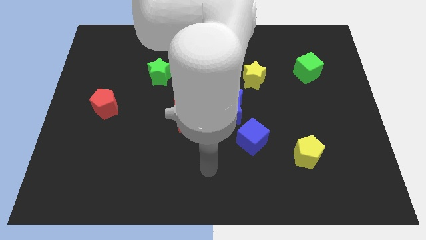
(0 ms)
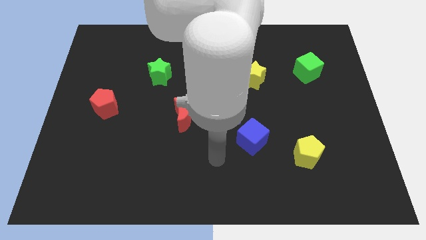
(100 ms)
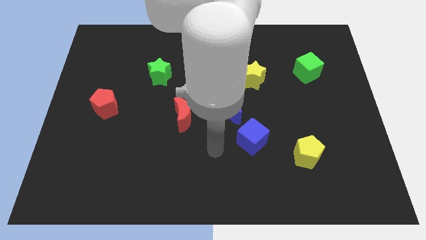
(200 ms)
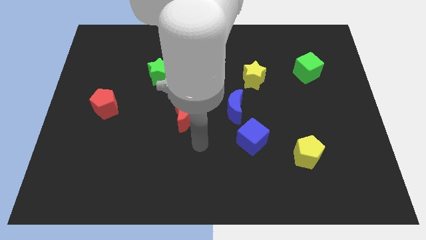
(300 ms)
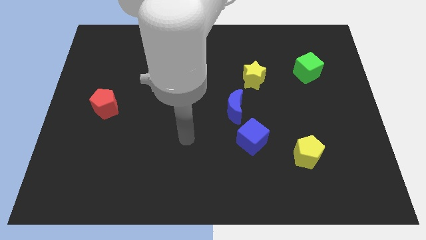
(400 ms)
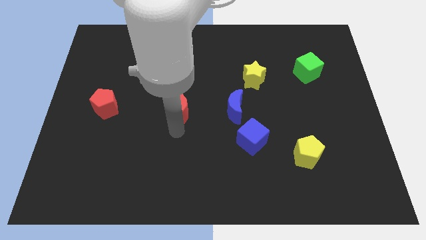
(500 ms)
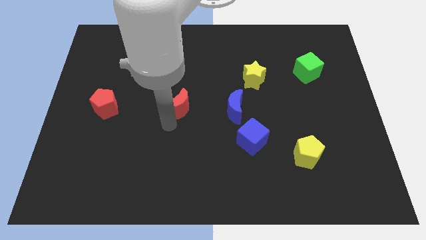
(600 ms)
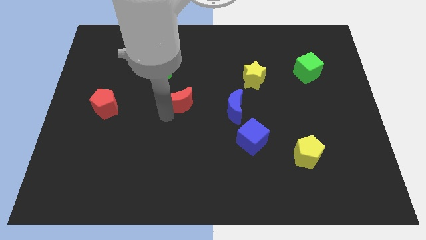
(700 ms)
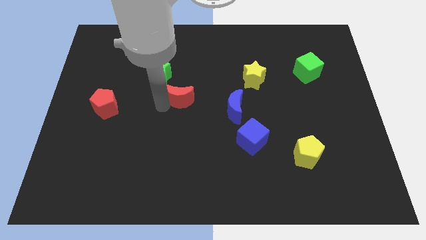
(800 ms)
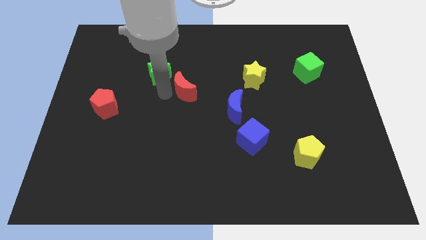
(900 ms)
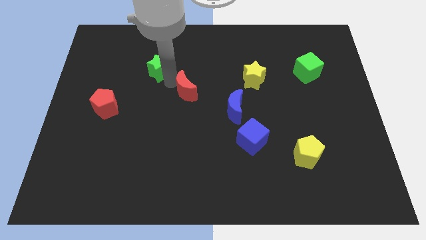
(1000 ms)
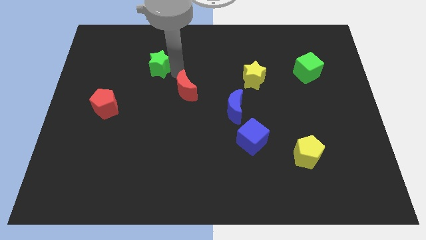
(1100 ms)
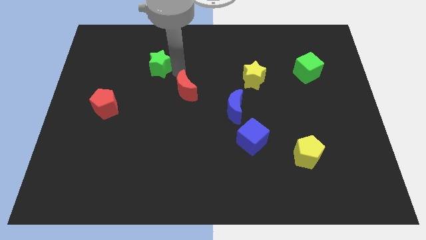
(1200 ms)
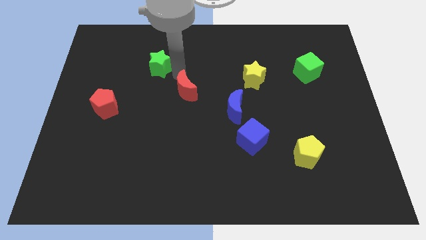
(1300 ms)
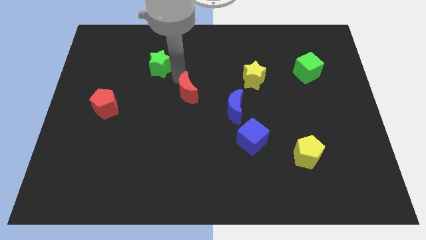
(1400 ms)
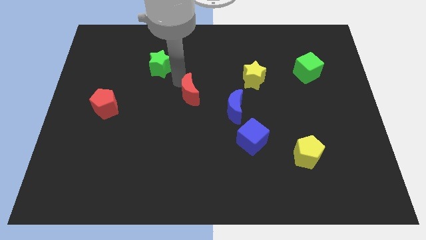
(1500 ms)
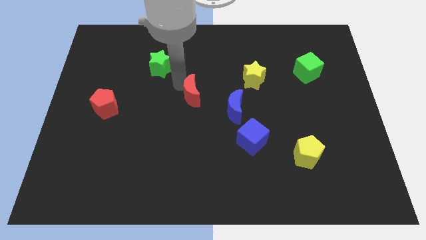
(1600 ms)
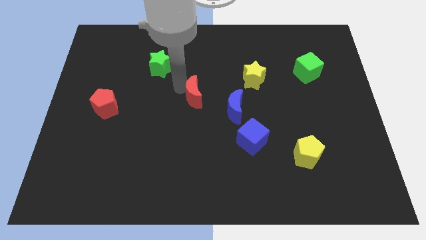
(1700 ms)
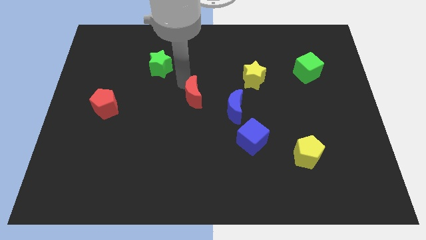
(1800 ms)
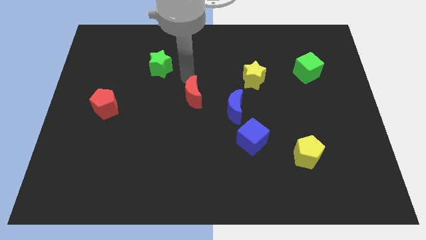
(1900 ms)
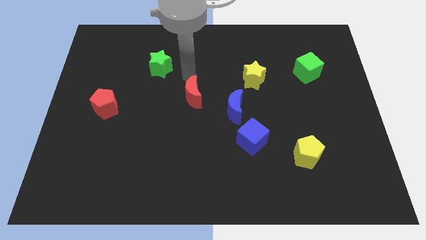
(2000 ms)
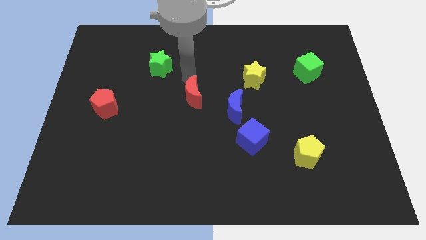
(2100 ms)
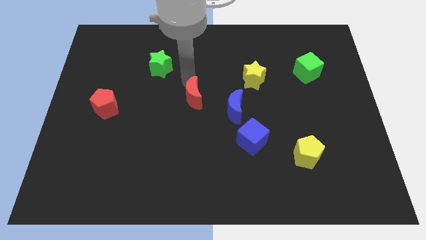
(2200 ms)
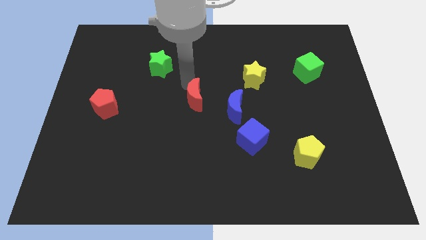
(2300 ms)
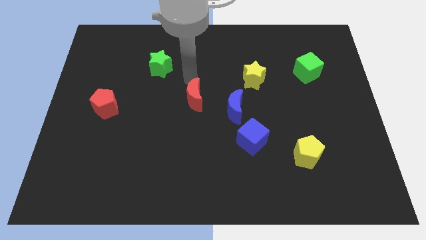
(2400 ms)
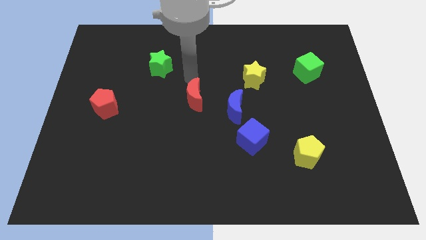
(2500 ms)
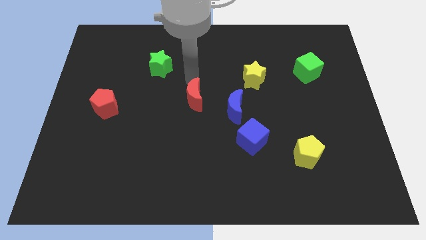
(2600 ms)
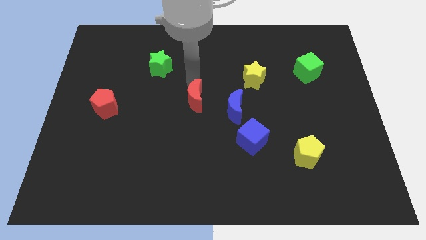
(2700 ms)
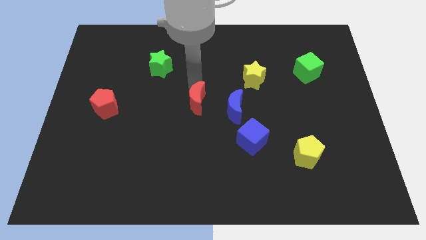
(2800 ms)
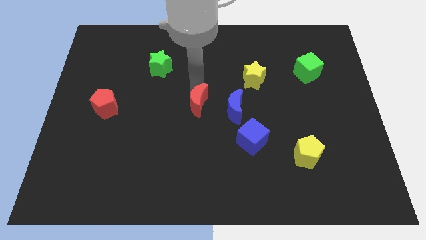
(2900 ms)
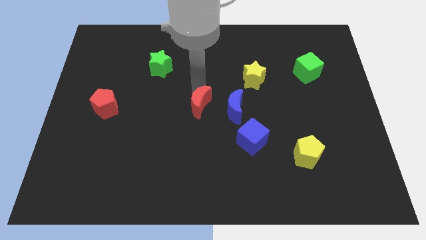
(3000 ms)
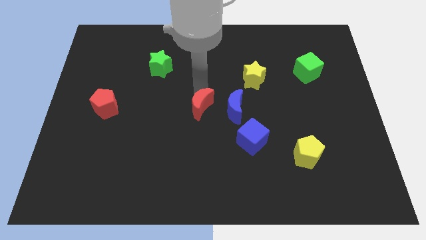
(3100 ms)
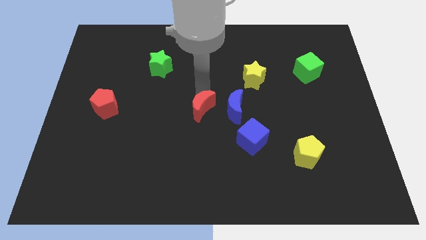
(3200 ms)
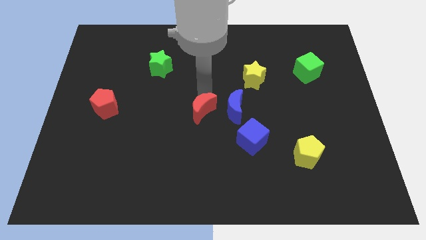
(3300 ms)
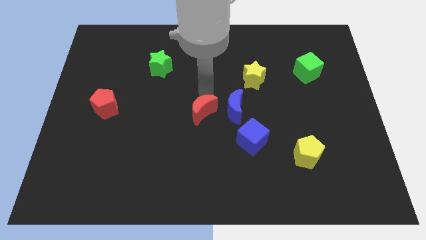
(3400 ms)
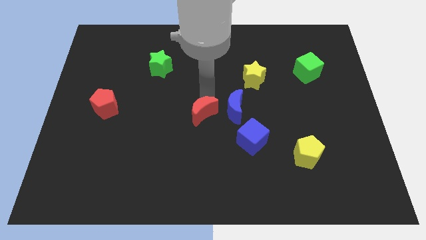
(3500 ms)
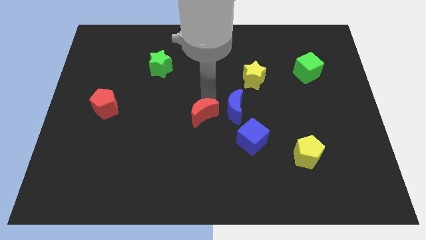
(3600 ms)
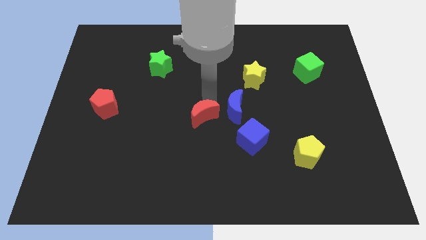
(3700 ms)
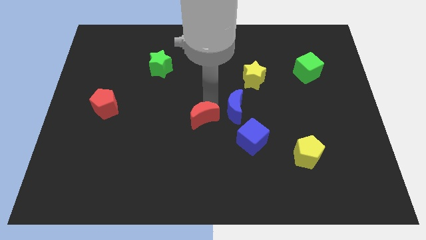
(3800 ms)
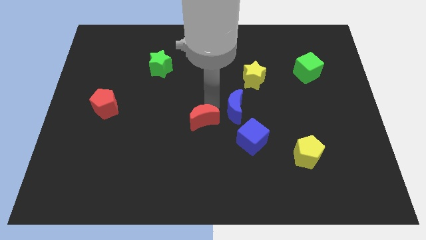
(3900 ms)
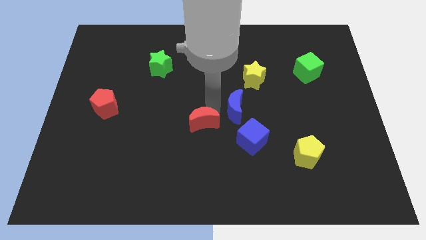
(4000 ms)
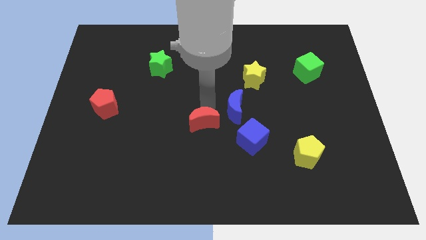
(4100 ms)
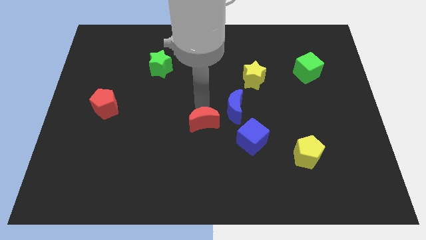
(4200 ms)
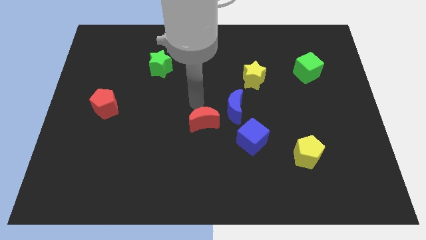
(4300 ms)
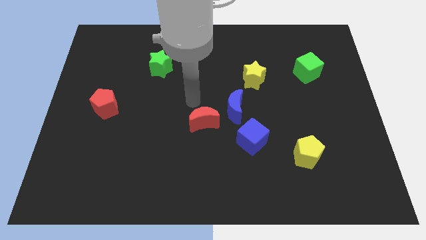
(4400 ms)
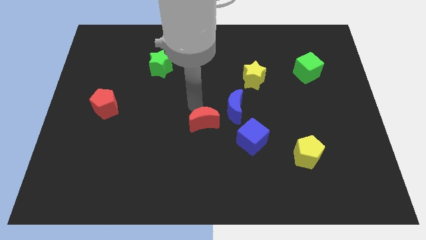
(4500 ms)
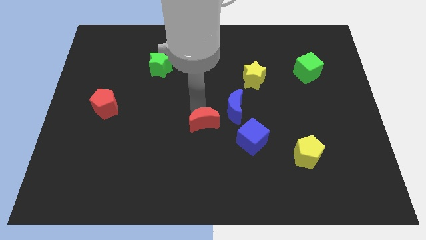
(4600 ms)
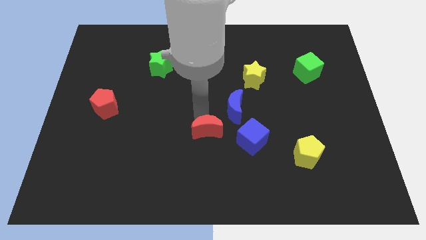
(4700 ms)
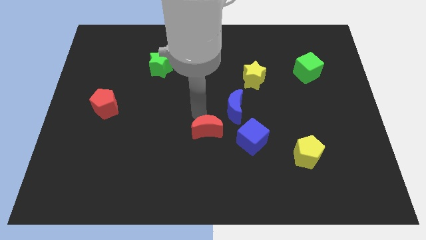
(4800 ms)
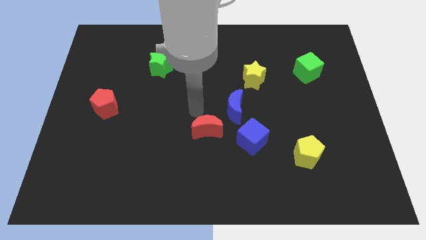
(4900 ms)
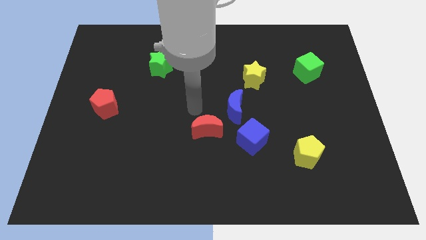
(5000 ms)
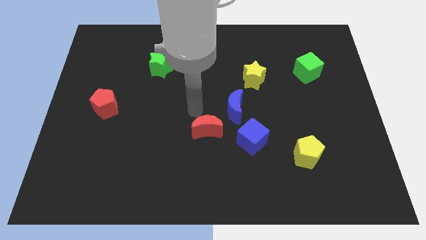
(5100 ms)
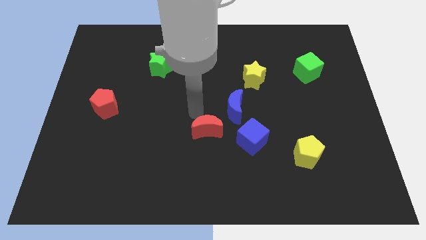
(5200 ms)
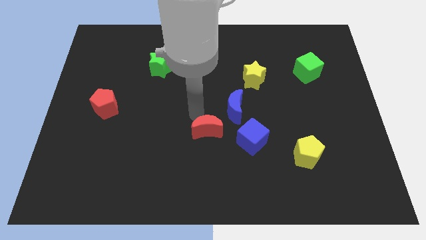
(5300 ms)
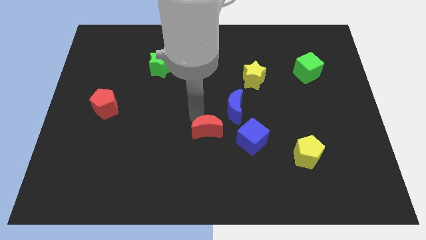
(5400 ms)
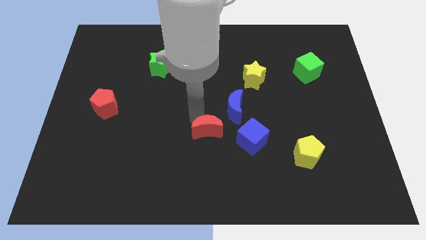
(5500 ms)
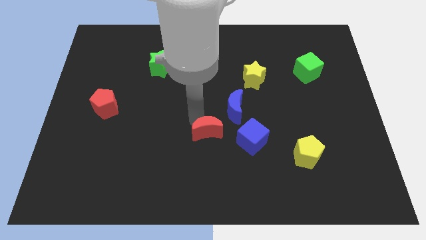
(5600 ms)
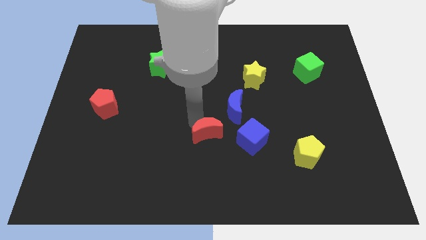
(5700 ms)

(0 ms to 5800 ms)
move the red moon a bit diagonally down and to the right

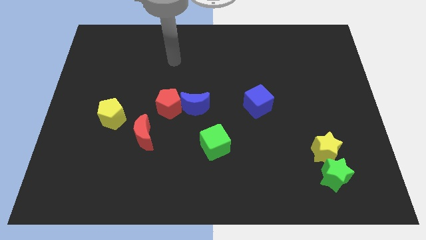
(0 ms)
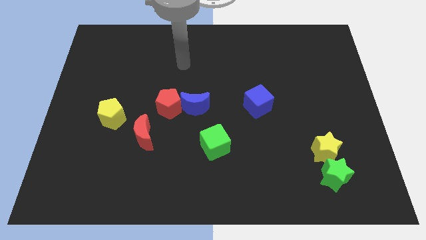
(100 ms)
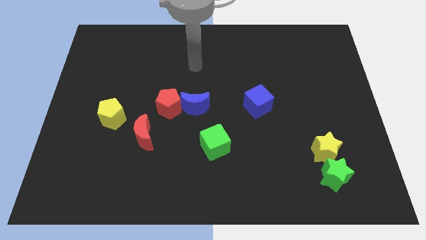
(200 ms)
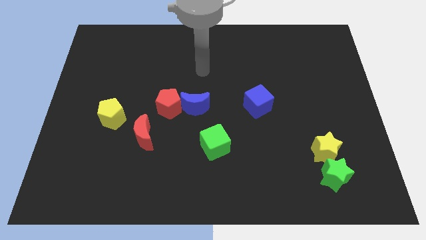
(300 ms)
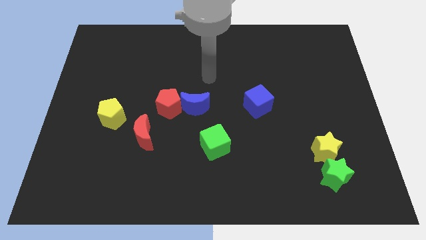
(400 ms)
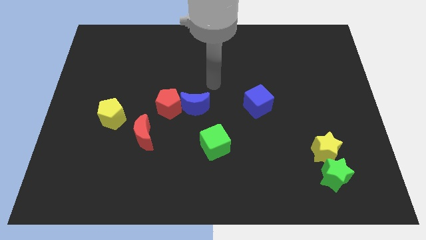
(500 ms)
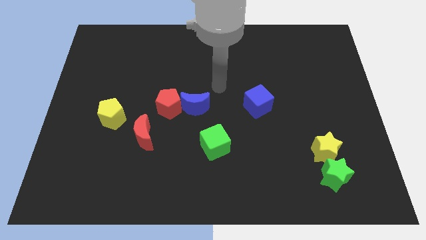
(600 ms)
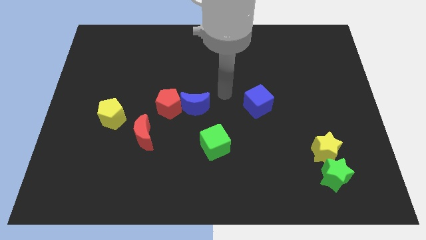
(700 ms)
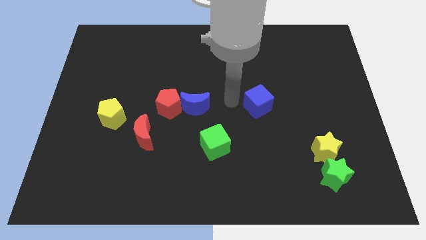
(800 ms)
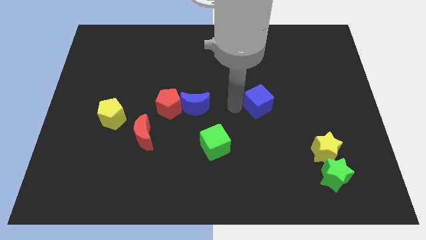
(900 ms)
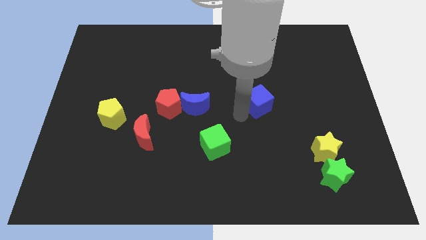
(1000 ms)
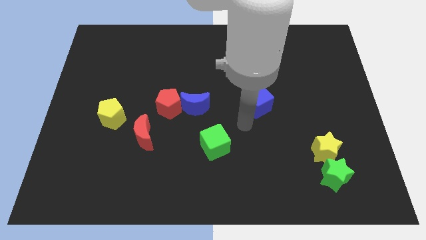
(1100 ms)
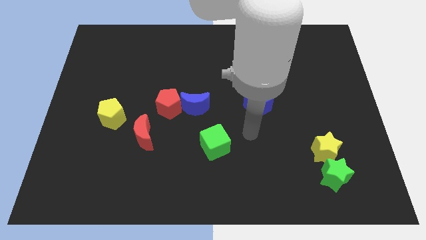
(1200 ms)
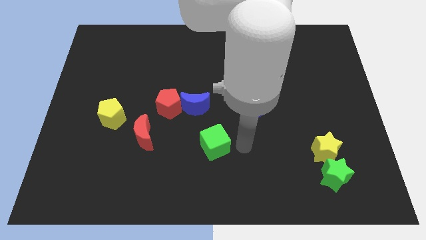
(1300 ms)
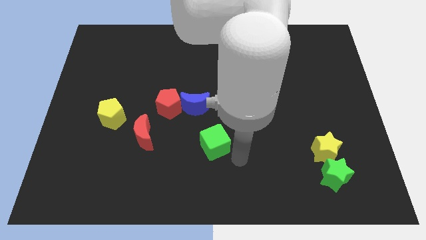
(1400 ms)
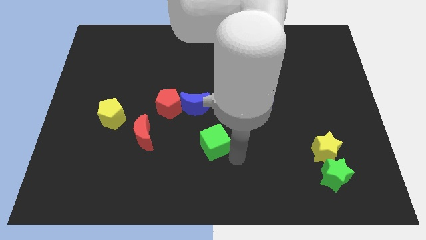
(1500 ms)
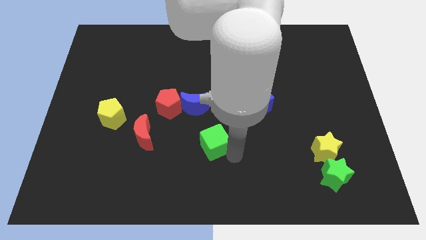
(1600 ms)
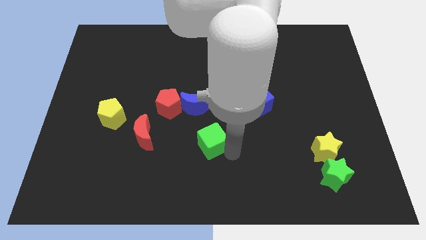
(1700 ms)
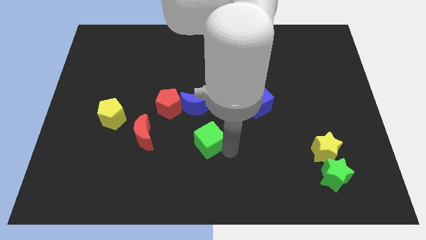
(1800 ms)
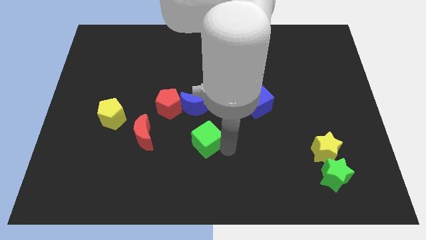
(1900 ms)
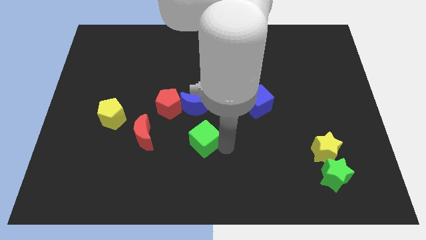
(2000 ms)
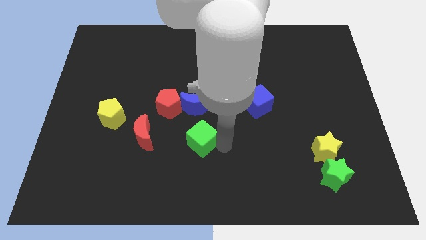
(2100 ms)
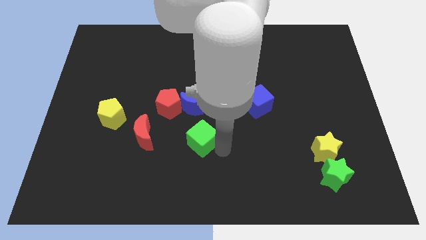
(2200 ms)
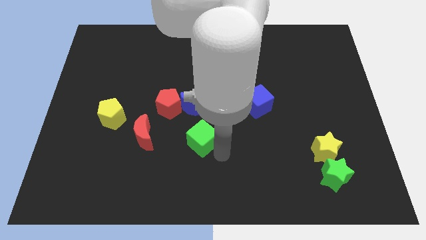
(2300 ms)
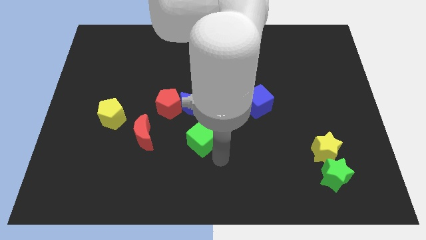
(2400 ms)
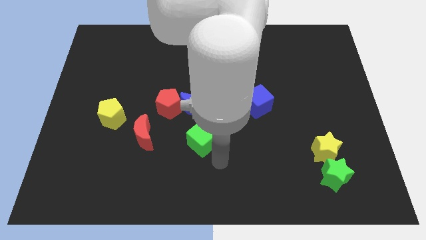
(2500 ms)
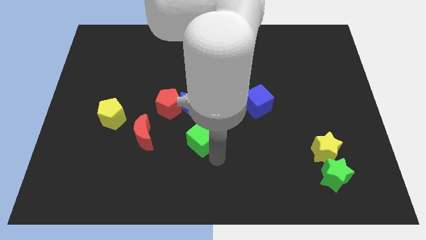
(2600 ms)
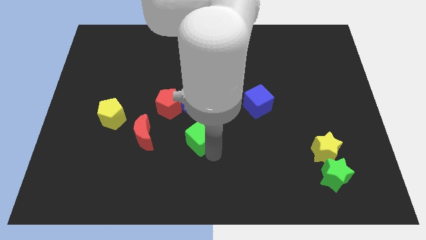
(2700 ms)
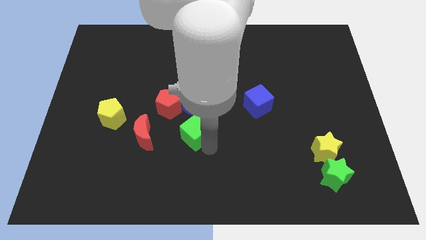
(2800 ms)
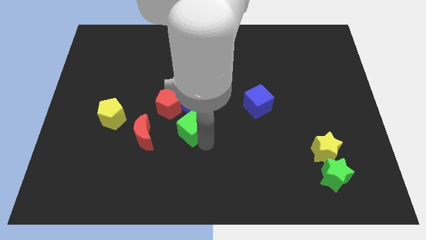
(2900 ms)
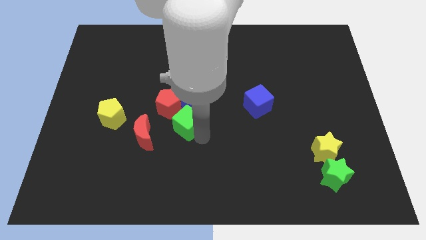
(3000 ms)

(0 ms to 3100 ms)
move the green cube upwards and left diagonally a little bit
